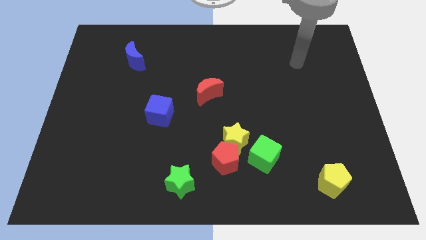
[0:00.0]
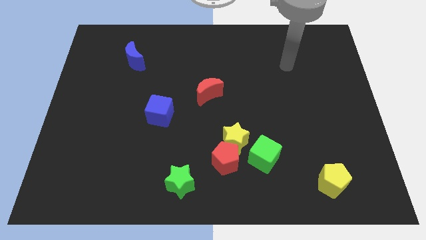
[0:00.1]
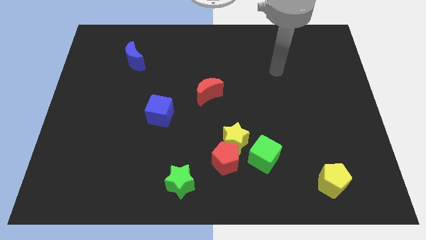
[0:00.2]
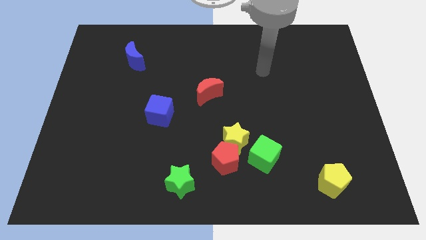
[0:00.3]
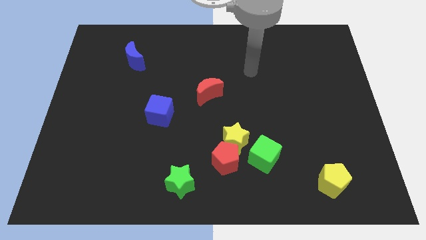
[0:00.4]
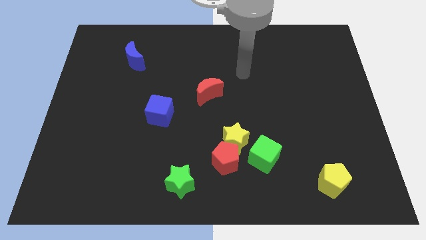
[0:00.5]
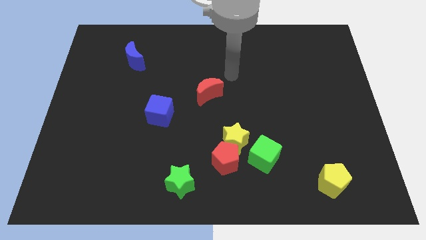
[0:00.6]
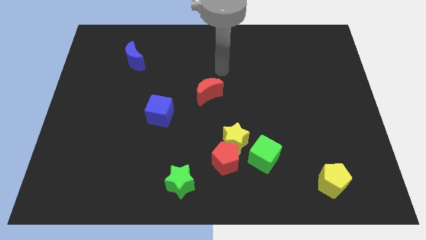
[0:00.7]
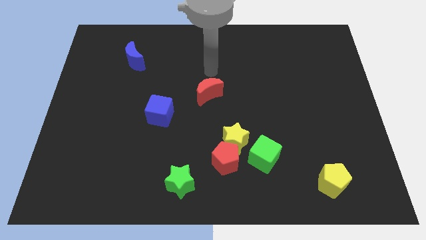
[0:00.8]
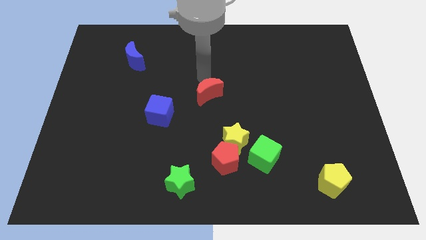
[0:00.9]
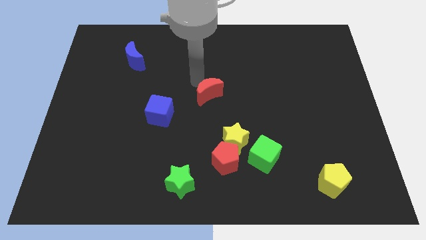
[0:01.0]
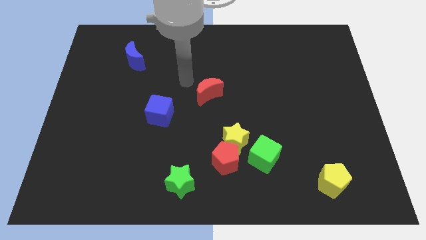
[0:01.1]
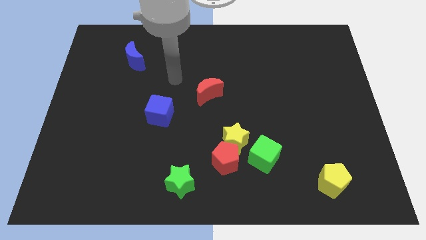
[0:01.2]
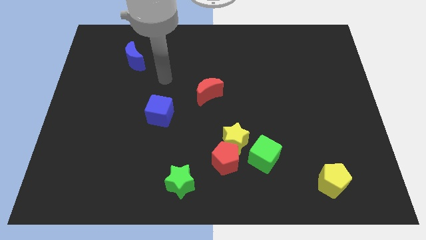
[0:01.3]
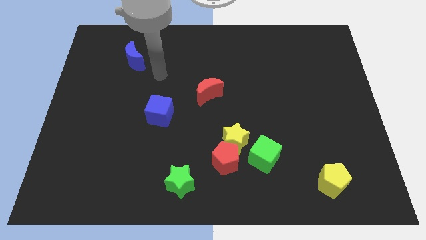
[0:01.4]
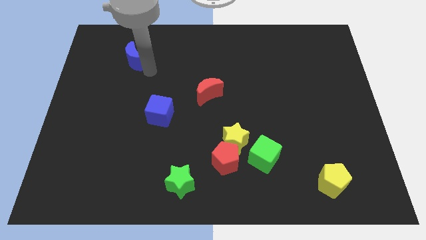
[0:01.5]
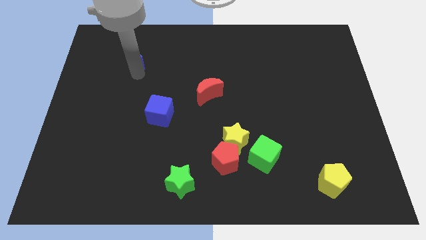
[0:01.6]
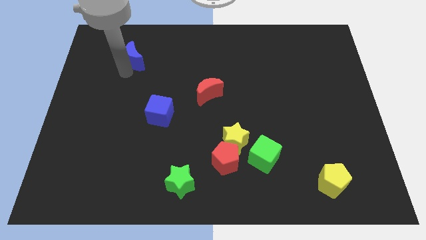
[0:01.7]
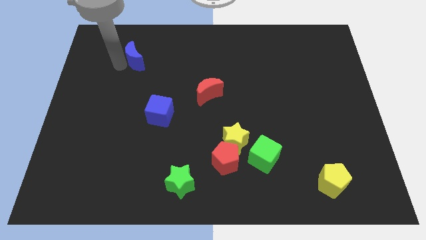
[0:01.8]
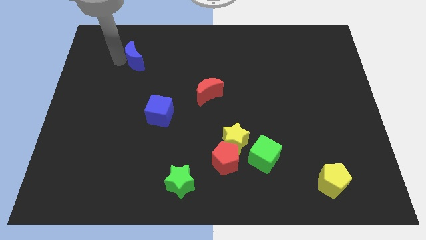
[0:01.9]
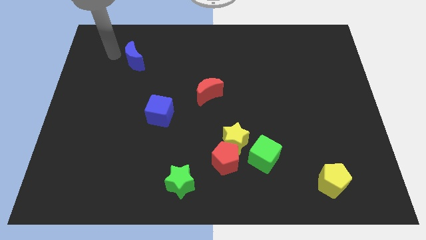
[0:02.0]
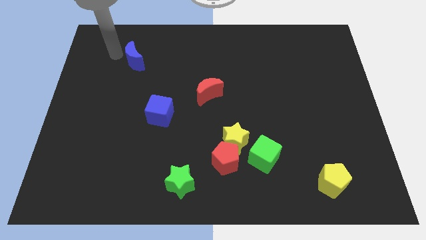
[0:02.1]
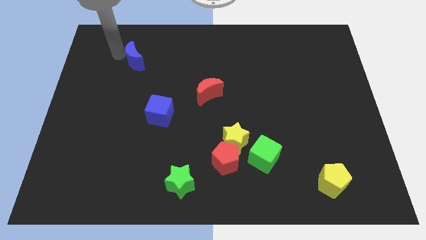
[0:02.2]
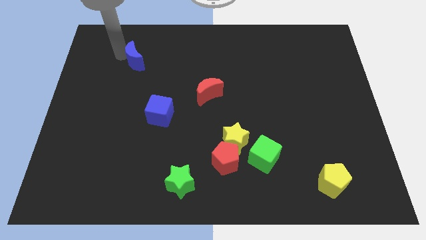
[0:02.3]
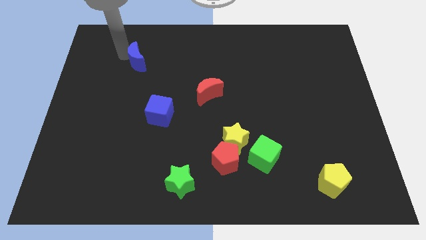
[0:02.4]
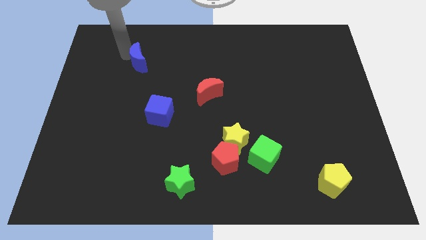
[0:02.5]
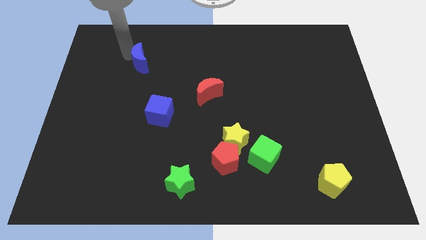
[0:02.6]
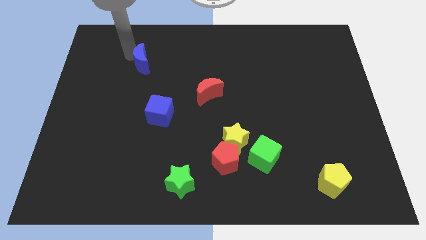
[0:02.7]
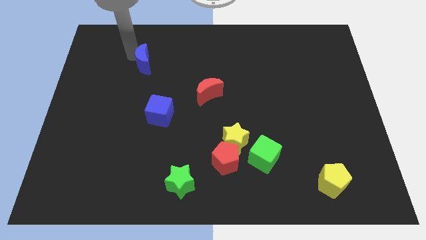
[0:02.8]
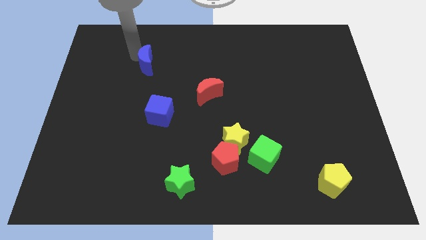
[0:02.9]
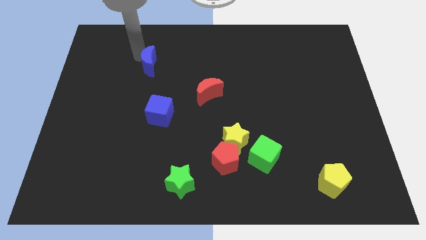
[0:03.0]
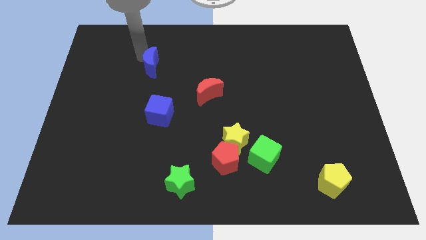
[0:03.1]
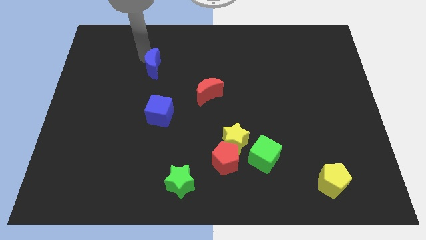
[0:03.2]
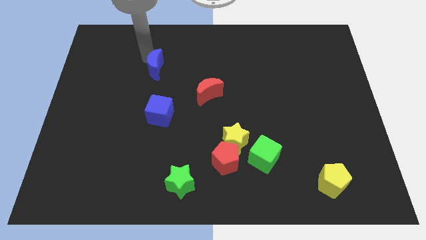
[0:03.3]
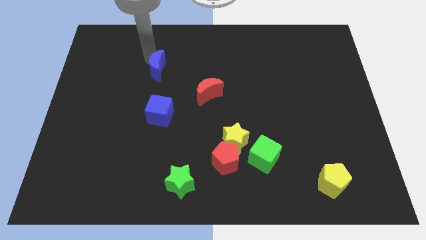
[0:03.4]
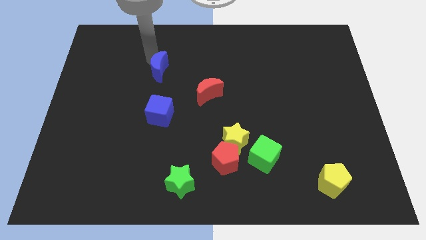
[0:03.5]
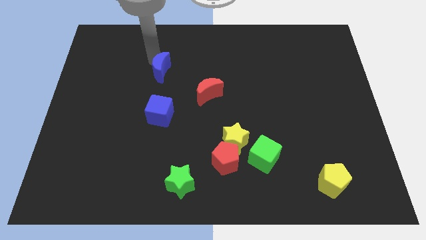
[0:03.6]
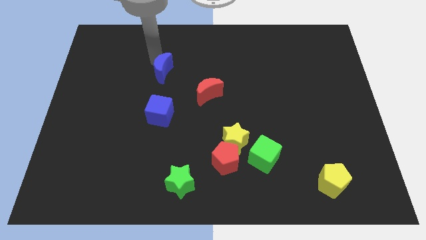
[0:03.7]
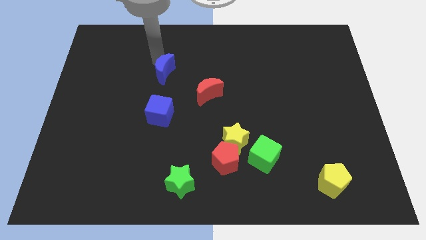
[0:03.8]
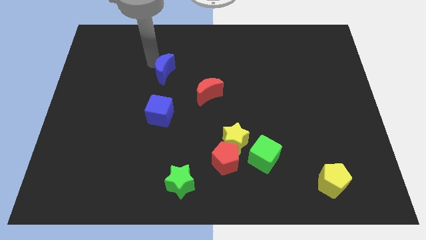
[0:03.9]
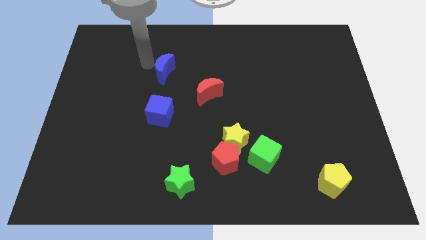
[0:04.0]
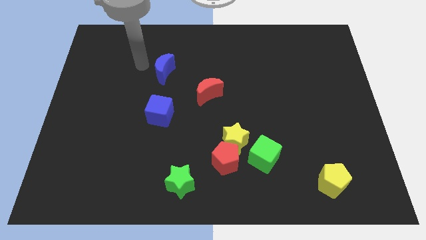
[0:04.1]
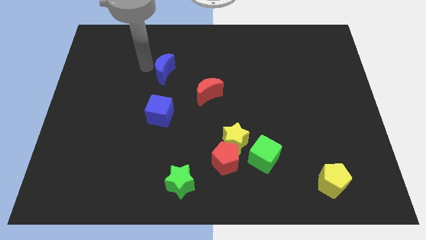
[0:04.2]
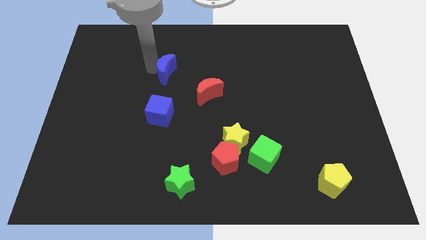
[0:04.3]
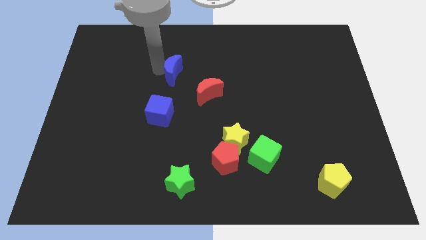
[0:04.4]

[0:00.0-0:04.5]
slide the blue moon to the top left of the red moon

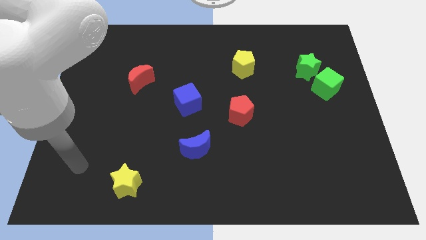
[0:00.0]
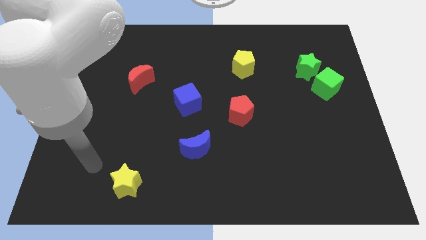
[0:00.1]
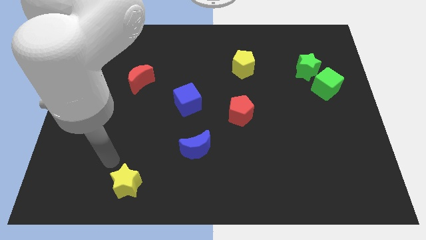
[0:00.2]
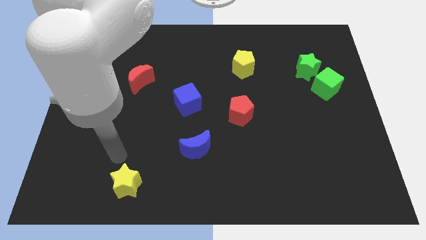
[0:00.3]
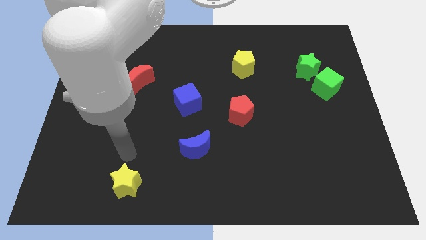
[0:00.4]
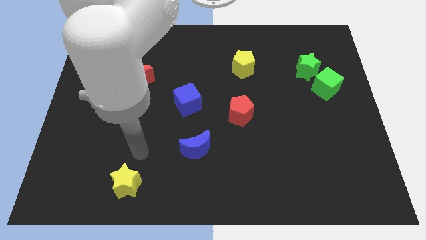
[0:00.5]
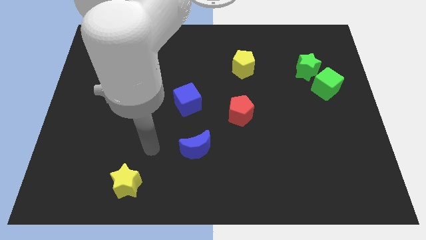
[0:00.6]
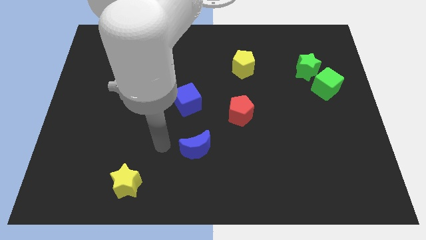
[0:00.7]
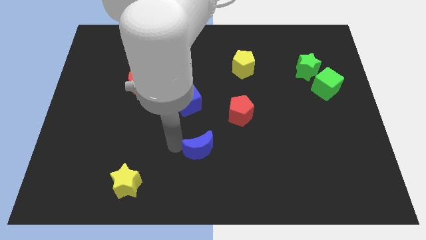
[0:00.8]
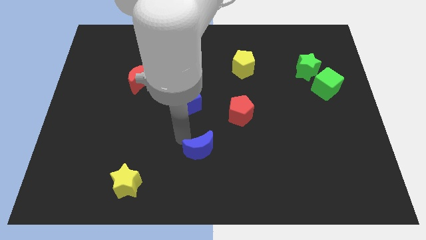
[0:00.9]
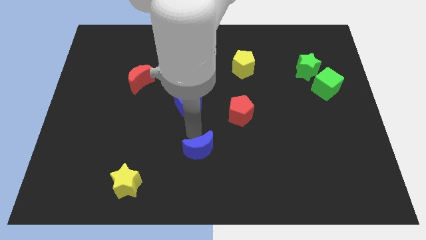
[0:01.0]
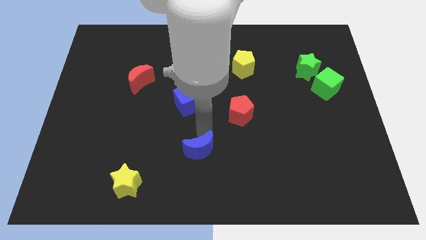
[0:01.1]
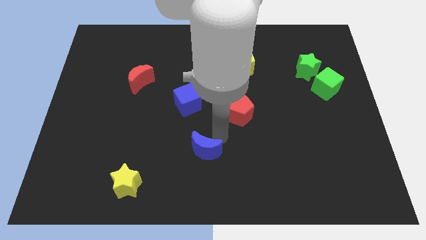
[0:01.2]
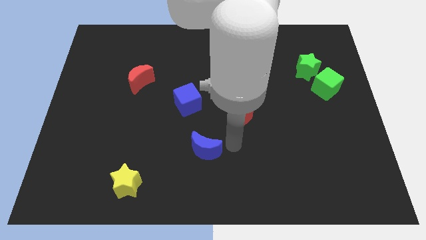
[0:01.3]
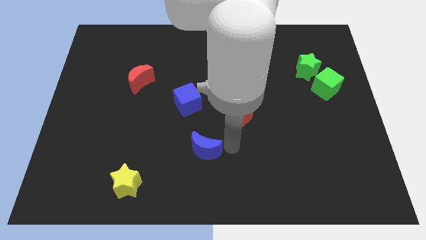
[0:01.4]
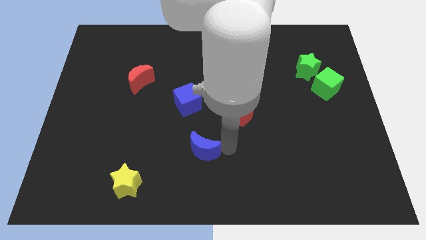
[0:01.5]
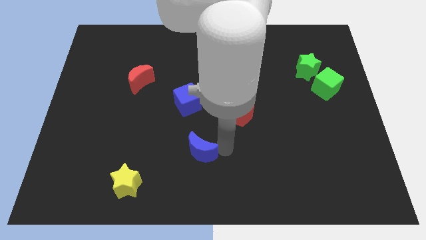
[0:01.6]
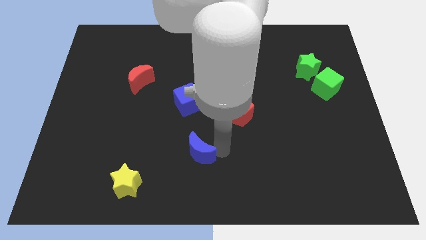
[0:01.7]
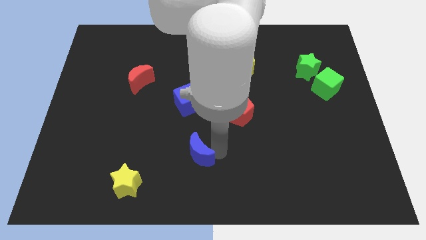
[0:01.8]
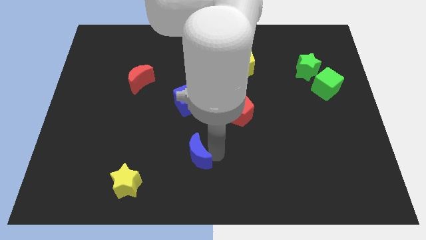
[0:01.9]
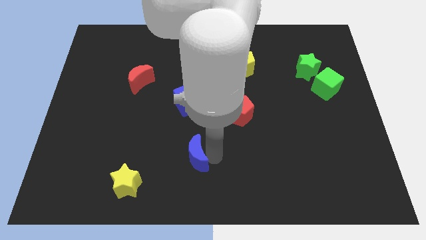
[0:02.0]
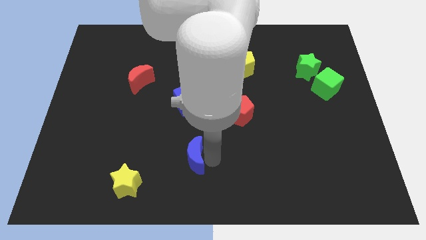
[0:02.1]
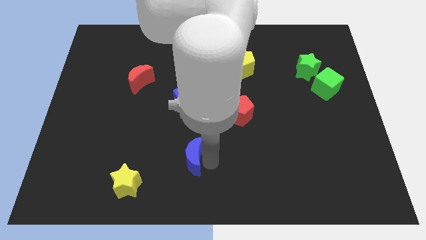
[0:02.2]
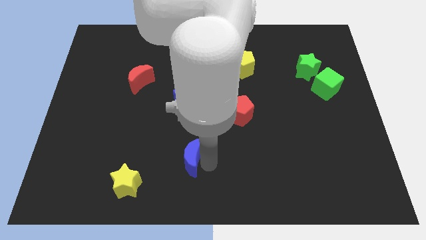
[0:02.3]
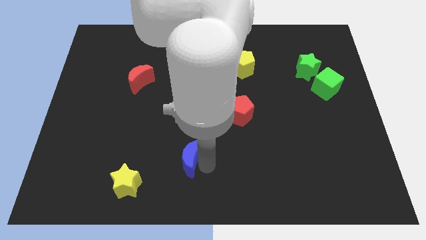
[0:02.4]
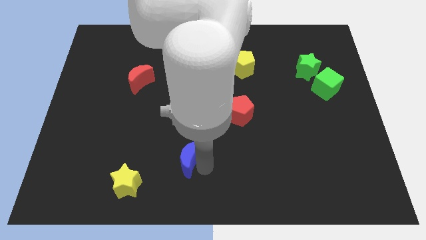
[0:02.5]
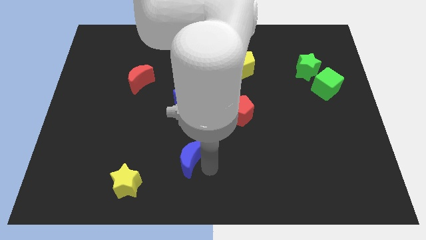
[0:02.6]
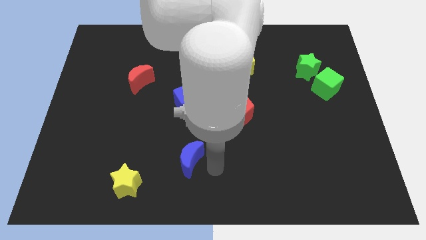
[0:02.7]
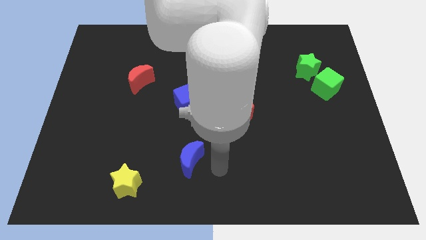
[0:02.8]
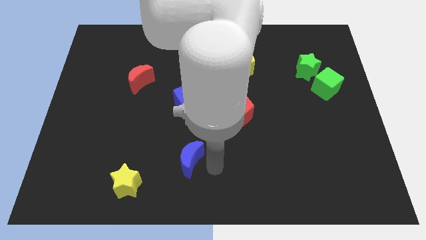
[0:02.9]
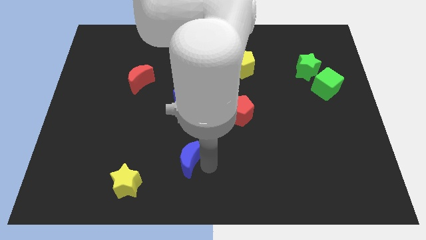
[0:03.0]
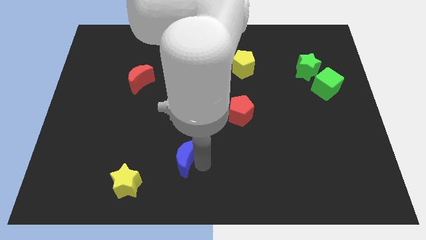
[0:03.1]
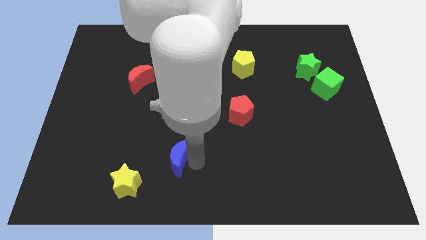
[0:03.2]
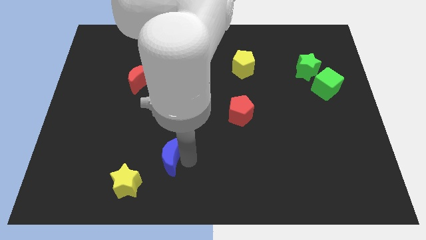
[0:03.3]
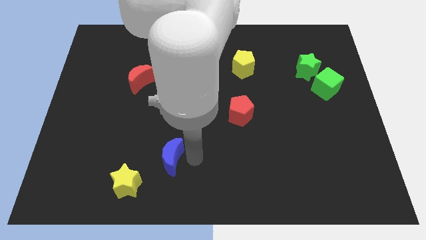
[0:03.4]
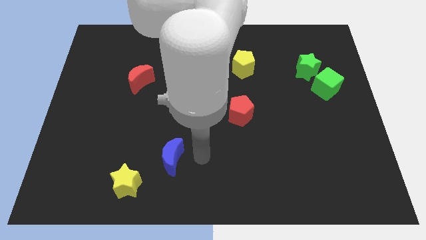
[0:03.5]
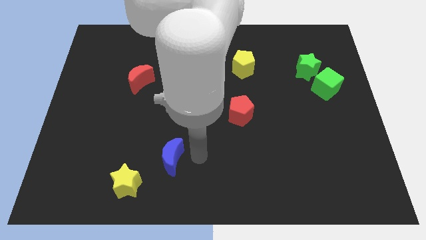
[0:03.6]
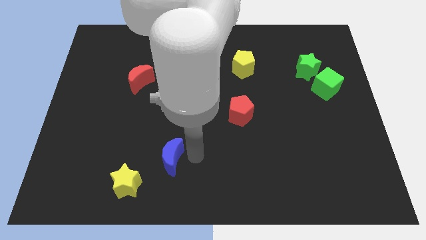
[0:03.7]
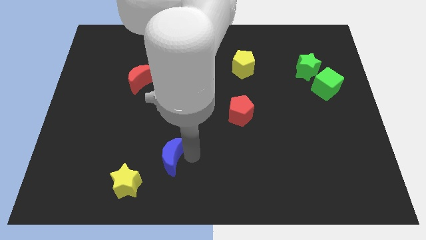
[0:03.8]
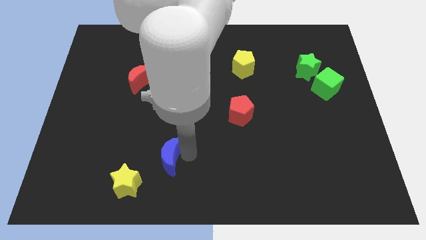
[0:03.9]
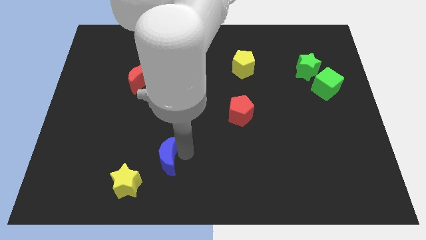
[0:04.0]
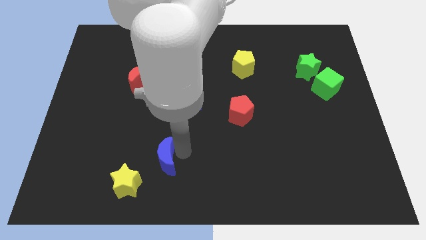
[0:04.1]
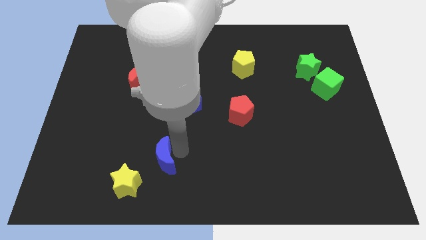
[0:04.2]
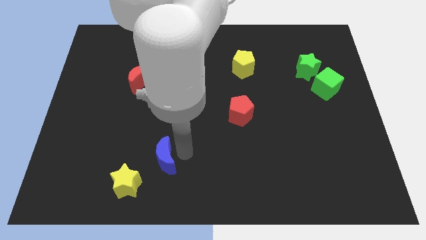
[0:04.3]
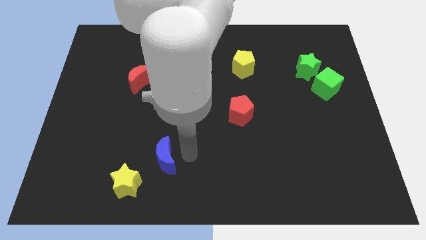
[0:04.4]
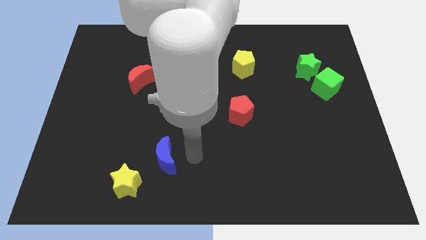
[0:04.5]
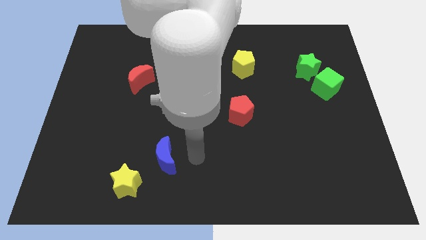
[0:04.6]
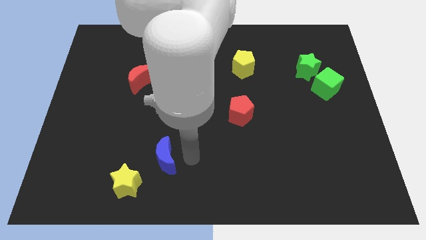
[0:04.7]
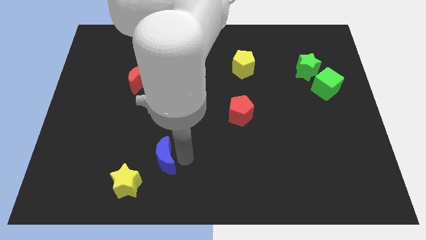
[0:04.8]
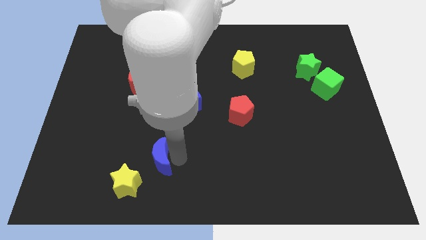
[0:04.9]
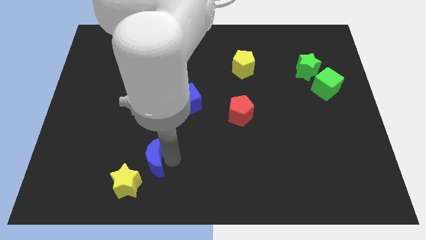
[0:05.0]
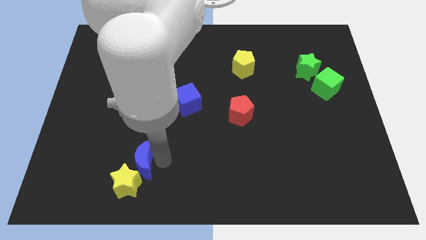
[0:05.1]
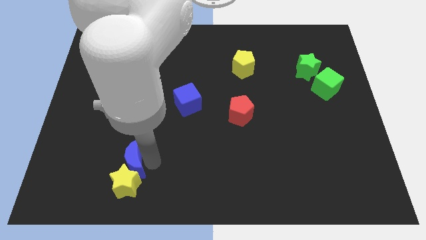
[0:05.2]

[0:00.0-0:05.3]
slide the blue moon to the top left side of the yellow star
